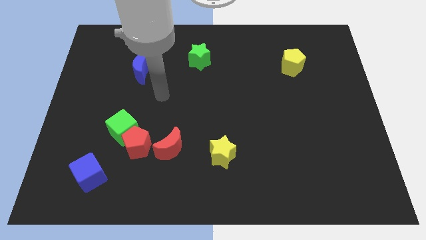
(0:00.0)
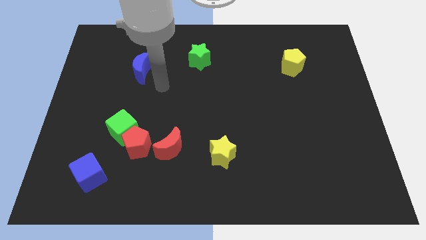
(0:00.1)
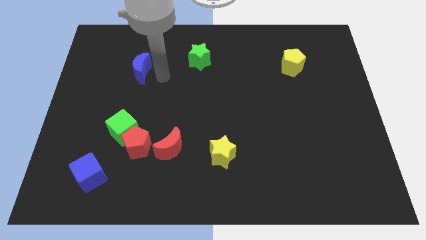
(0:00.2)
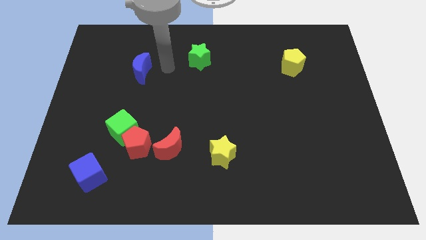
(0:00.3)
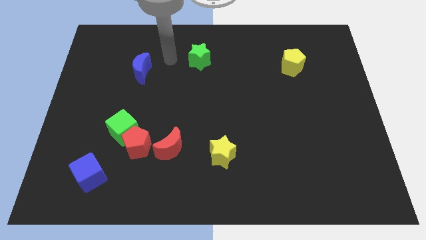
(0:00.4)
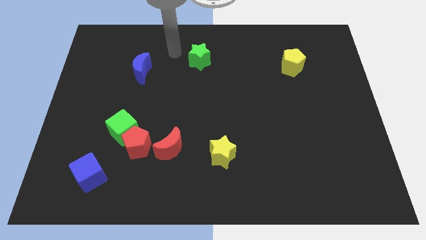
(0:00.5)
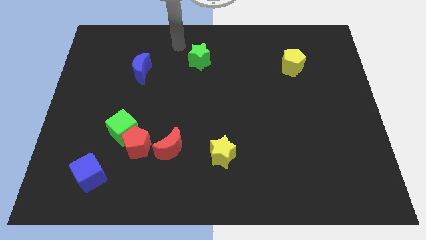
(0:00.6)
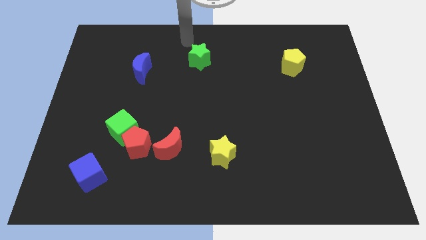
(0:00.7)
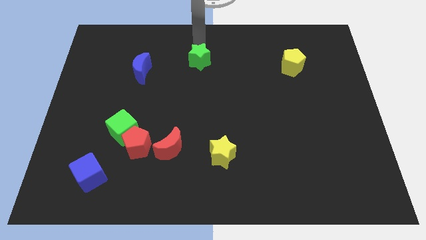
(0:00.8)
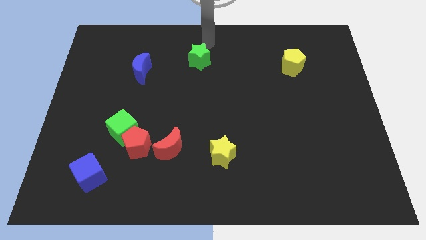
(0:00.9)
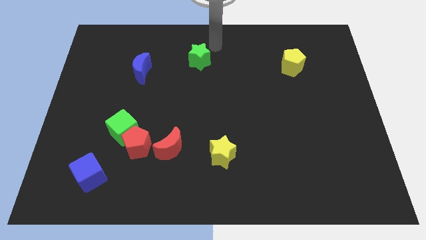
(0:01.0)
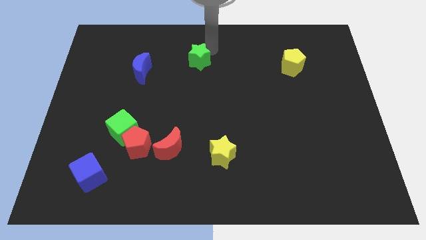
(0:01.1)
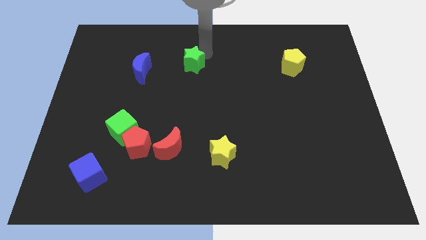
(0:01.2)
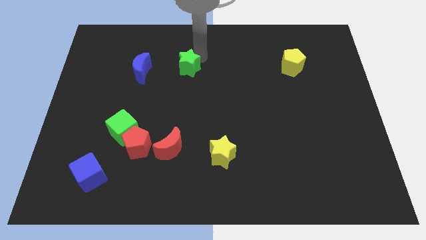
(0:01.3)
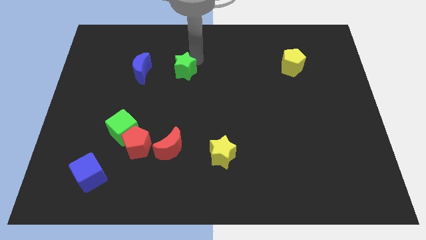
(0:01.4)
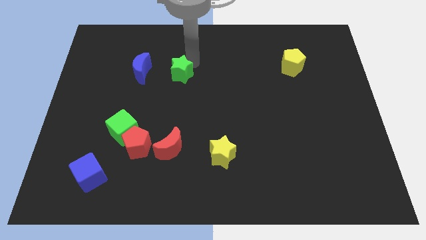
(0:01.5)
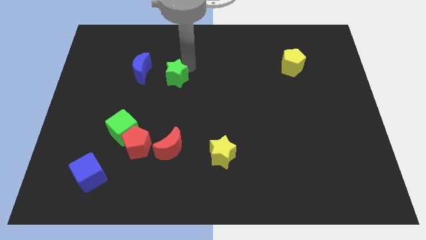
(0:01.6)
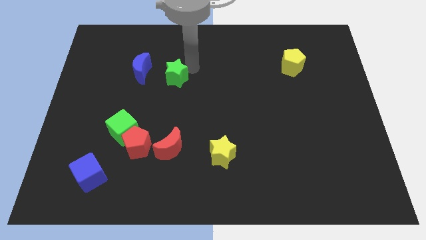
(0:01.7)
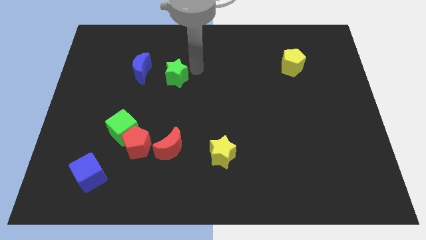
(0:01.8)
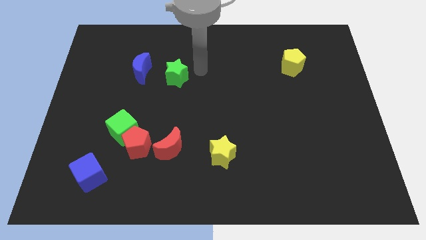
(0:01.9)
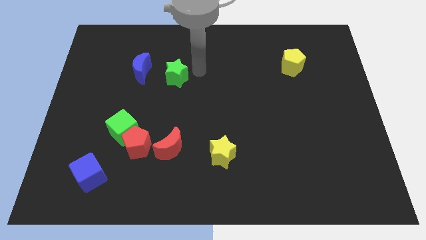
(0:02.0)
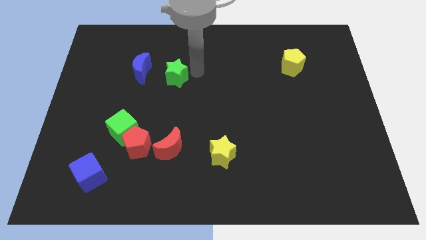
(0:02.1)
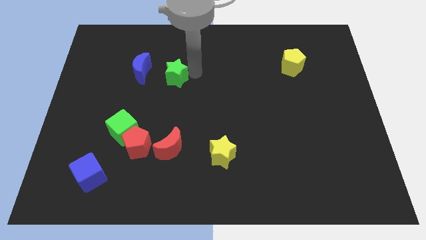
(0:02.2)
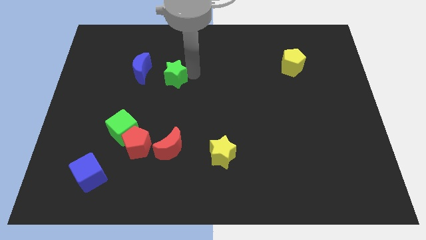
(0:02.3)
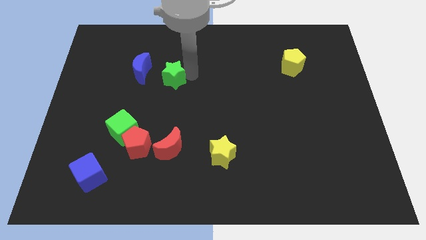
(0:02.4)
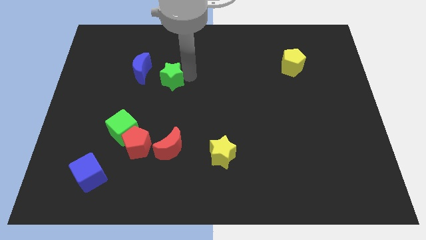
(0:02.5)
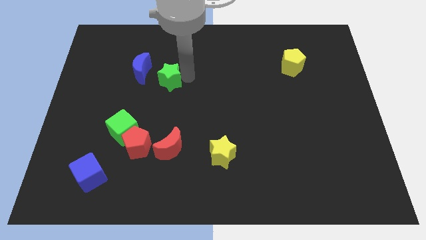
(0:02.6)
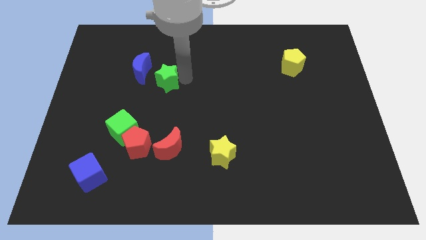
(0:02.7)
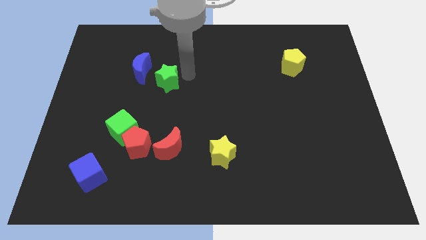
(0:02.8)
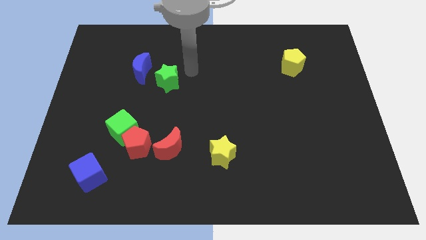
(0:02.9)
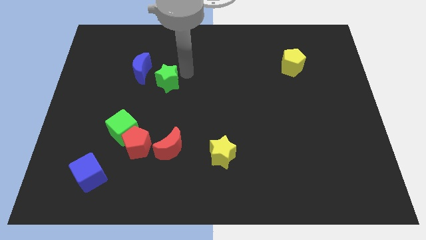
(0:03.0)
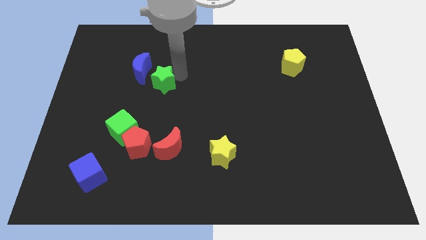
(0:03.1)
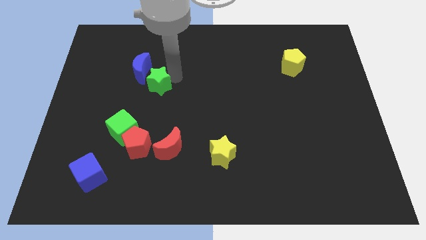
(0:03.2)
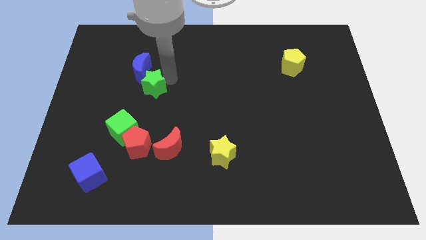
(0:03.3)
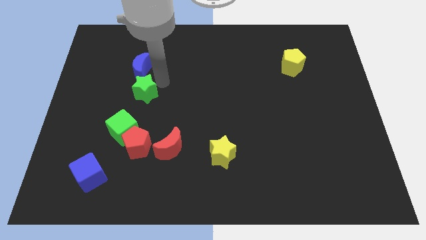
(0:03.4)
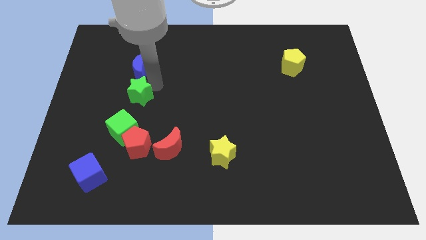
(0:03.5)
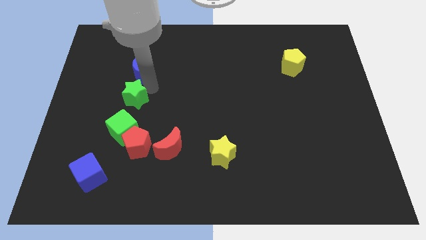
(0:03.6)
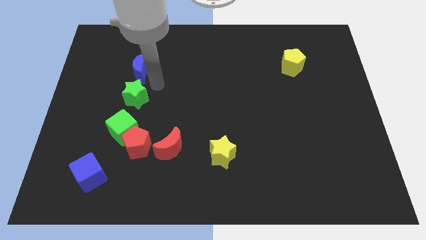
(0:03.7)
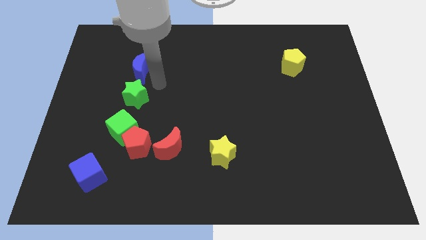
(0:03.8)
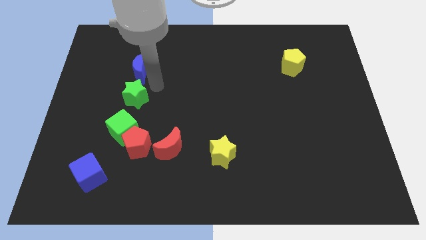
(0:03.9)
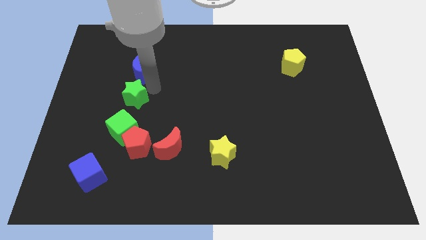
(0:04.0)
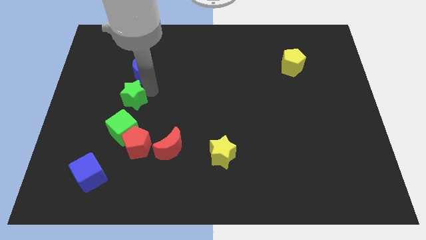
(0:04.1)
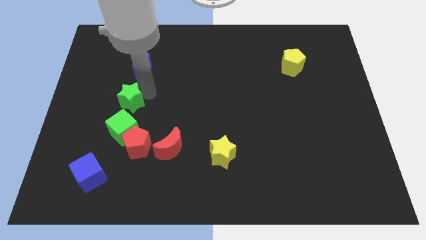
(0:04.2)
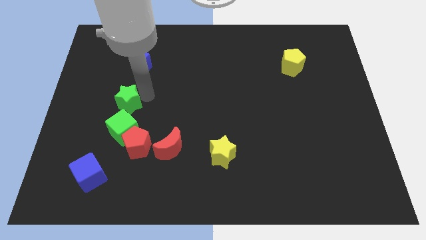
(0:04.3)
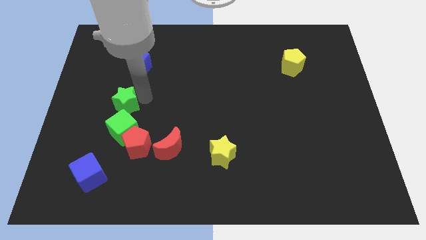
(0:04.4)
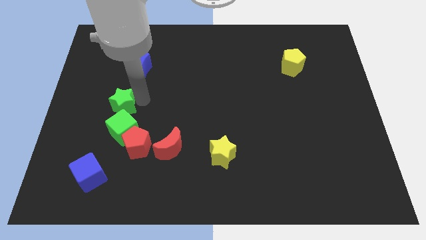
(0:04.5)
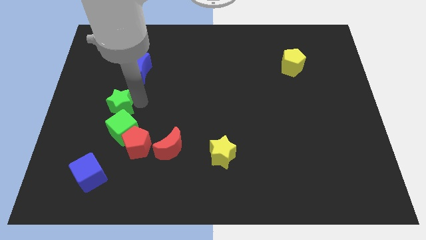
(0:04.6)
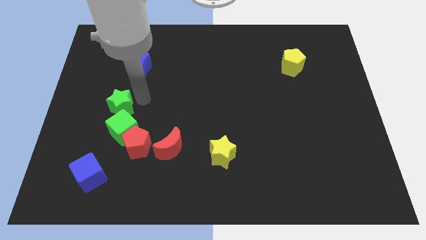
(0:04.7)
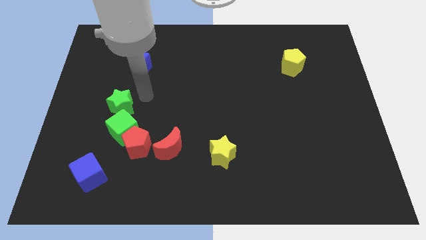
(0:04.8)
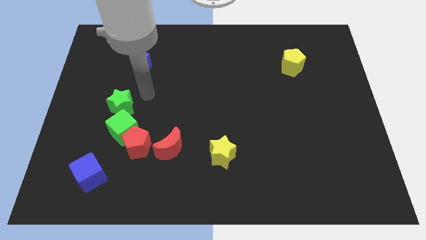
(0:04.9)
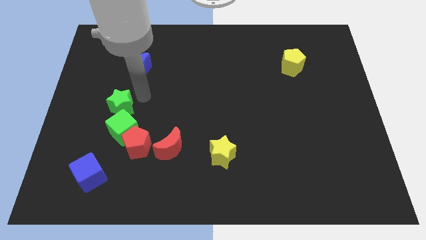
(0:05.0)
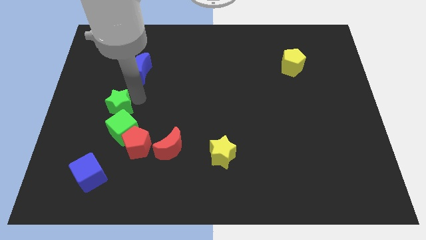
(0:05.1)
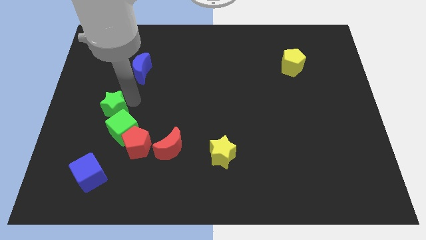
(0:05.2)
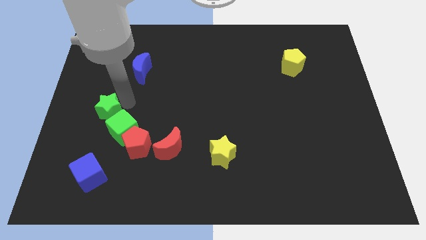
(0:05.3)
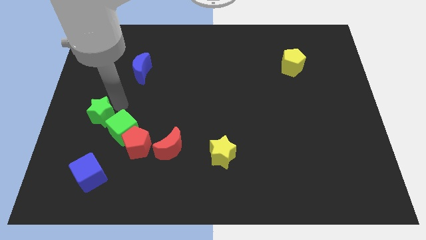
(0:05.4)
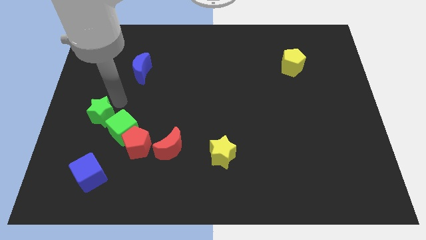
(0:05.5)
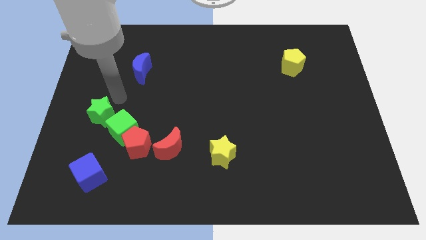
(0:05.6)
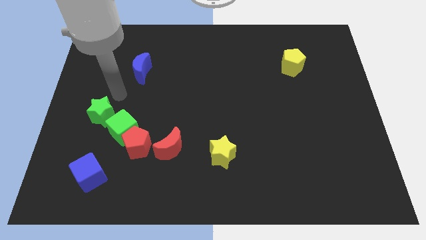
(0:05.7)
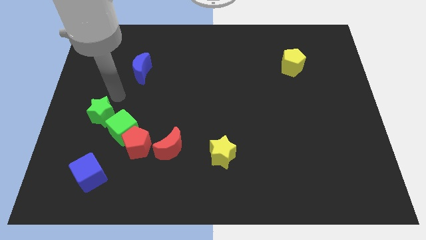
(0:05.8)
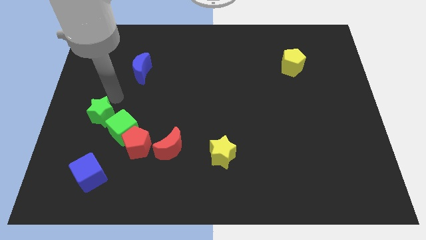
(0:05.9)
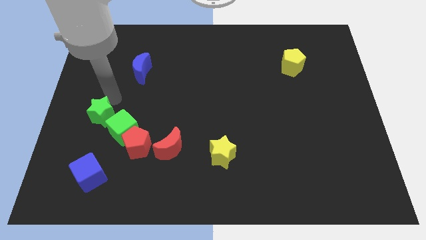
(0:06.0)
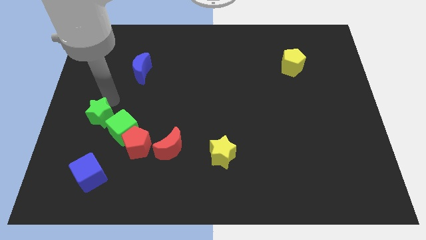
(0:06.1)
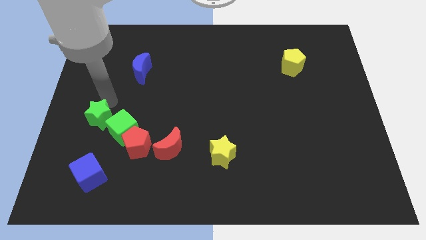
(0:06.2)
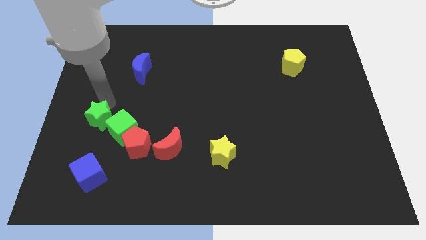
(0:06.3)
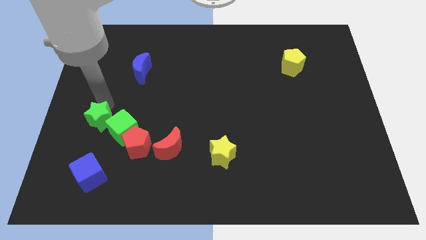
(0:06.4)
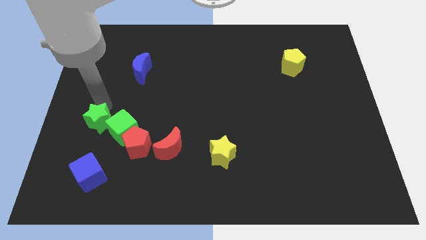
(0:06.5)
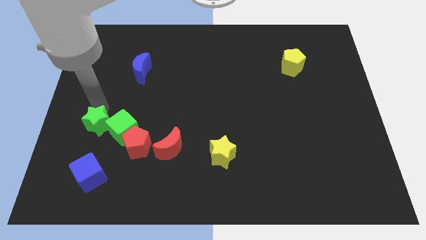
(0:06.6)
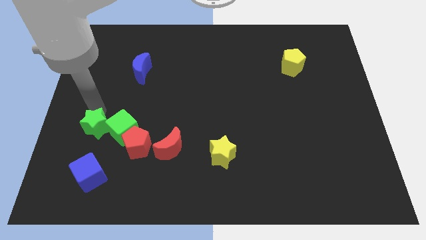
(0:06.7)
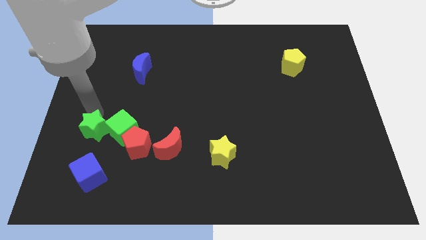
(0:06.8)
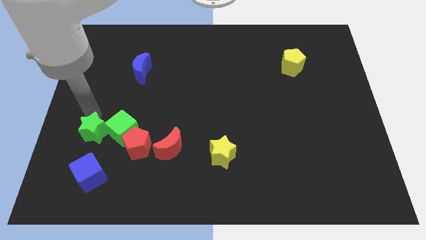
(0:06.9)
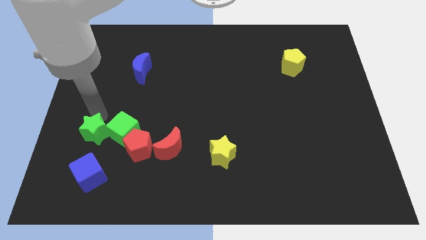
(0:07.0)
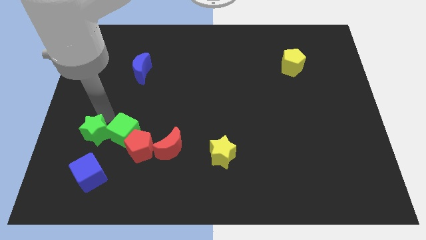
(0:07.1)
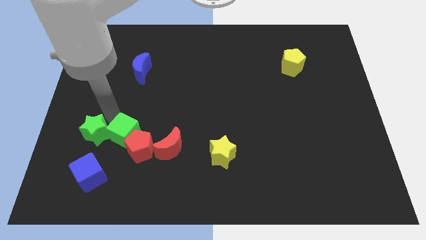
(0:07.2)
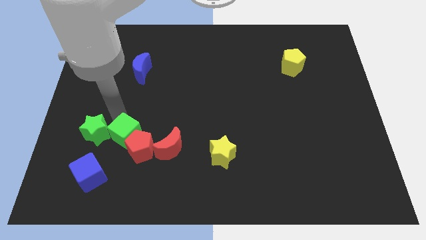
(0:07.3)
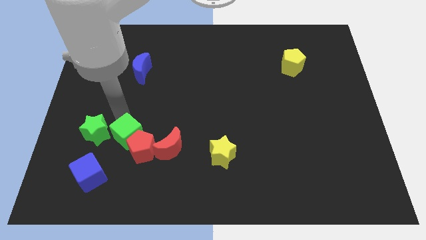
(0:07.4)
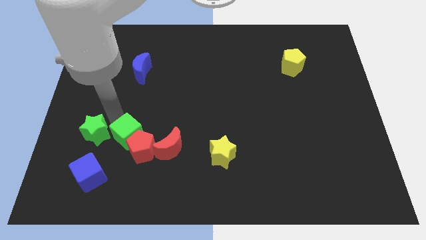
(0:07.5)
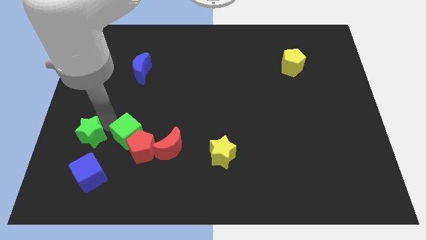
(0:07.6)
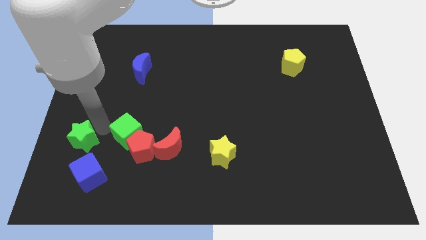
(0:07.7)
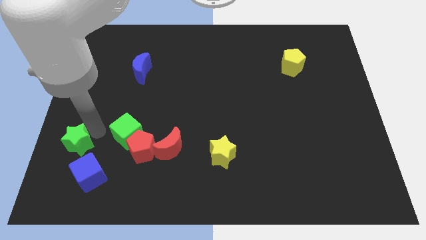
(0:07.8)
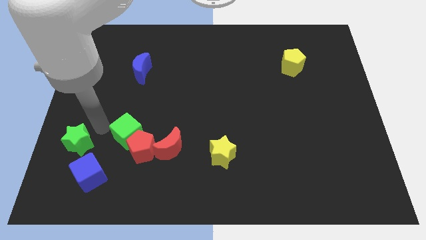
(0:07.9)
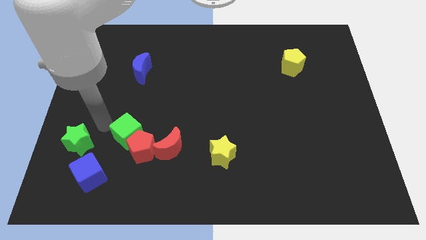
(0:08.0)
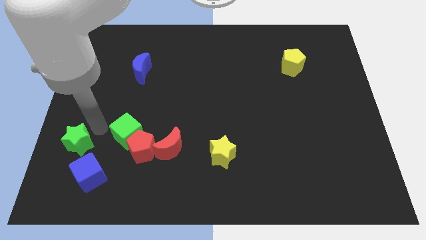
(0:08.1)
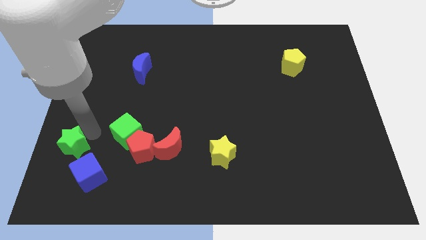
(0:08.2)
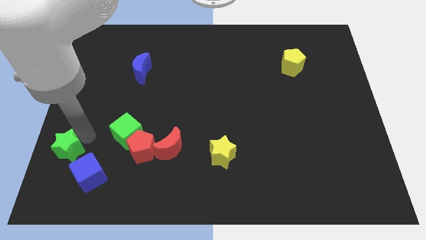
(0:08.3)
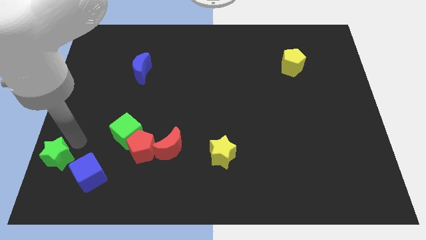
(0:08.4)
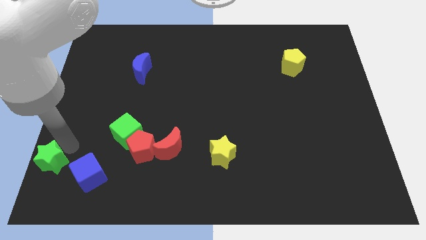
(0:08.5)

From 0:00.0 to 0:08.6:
move the green star to the lower left corner
